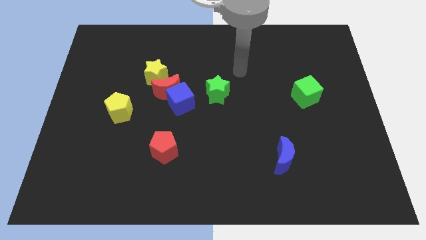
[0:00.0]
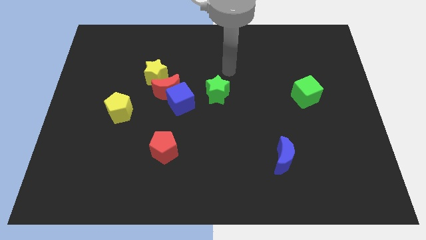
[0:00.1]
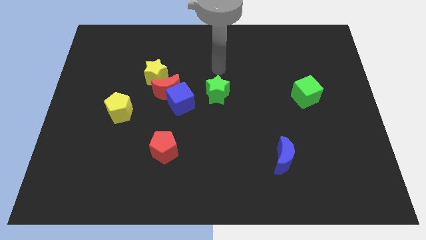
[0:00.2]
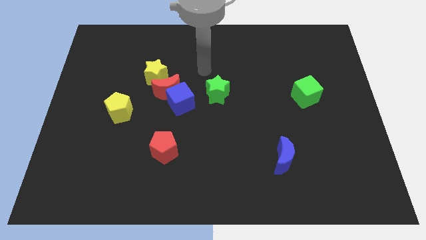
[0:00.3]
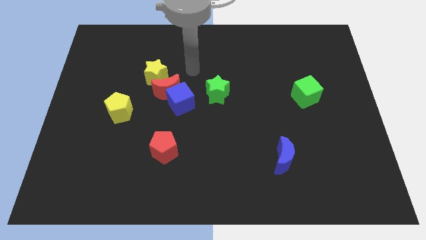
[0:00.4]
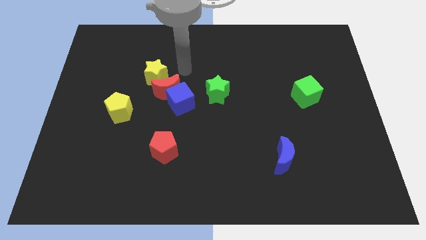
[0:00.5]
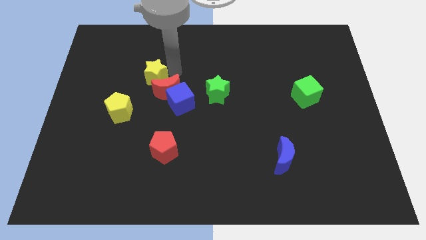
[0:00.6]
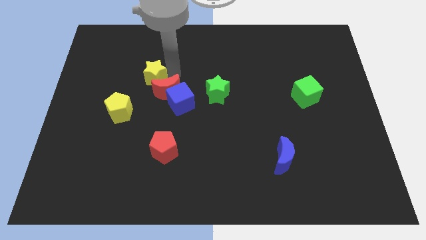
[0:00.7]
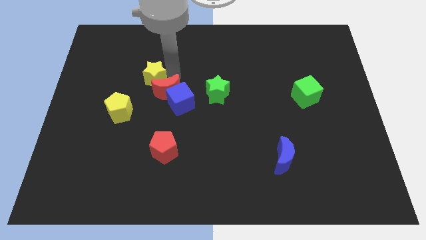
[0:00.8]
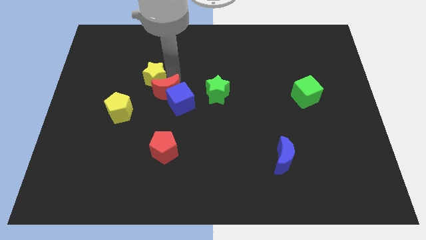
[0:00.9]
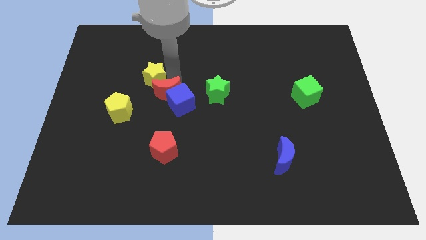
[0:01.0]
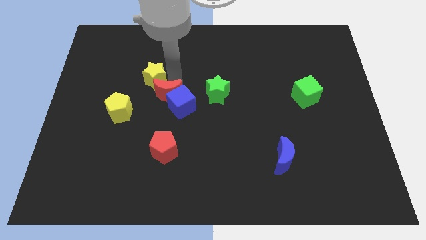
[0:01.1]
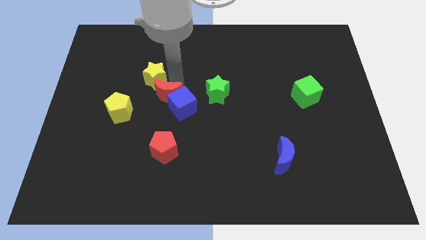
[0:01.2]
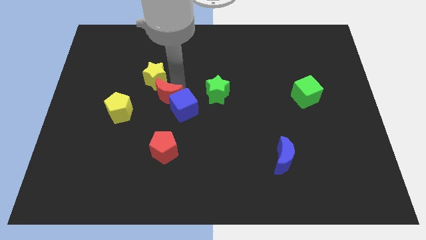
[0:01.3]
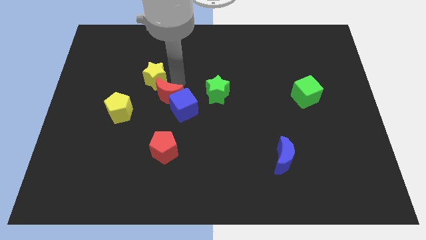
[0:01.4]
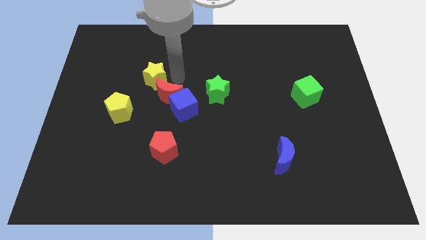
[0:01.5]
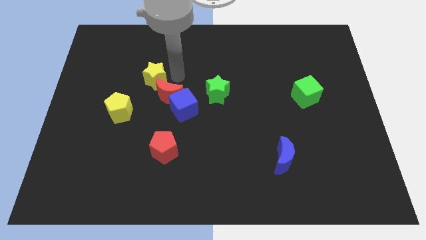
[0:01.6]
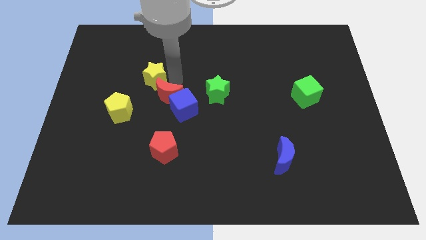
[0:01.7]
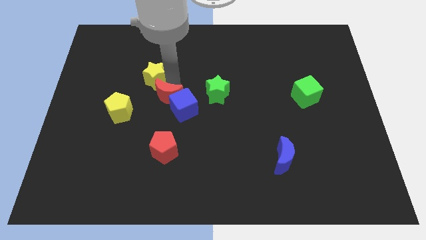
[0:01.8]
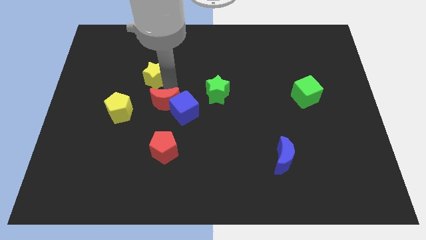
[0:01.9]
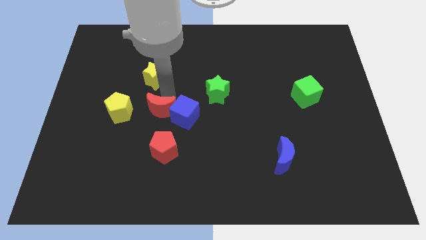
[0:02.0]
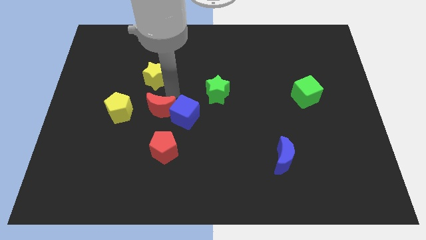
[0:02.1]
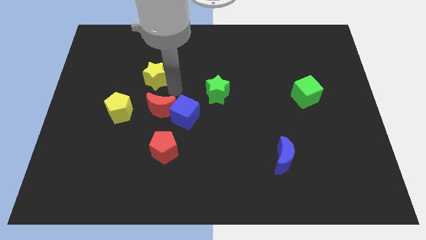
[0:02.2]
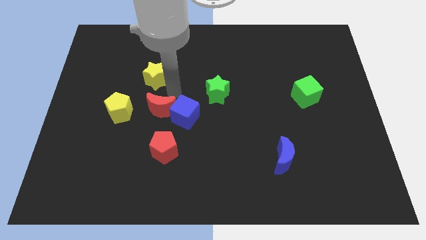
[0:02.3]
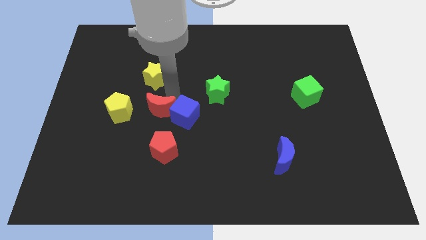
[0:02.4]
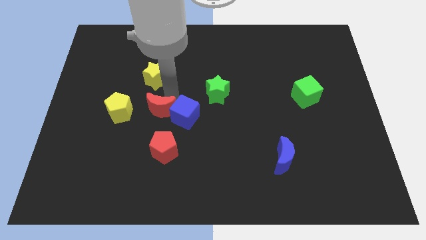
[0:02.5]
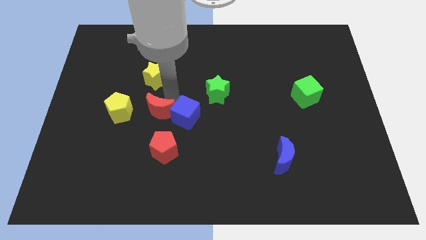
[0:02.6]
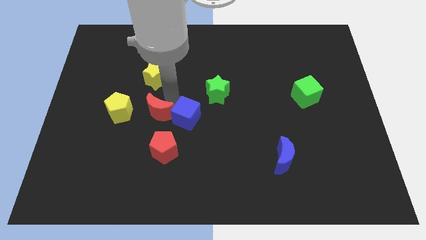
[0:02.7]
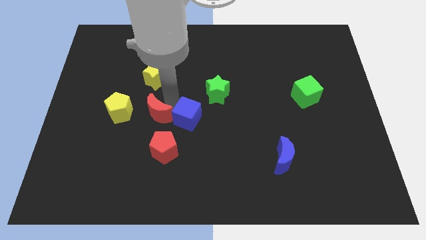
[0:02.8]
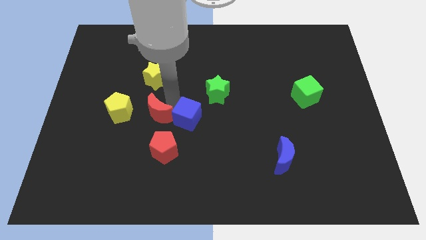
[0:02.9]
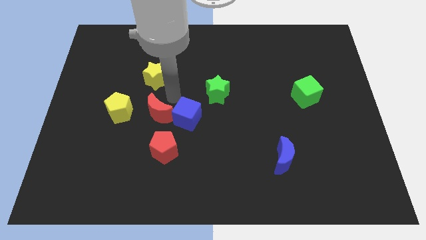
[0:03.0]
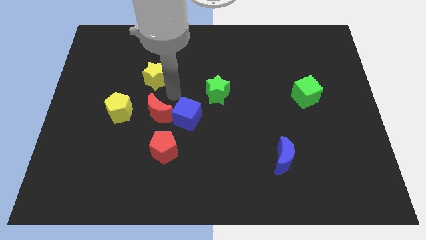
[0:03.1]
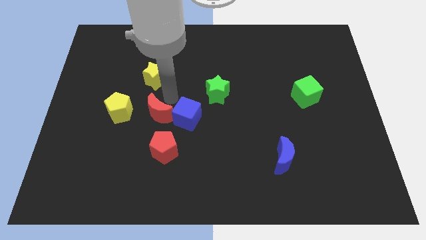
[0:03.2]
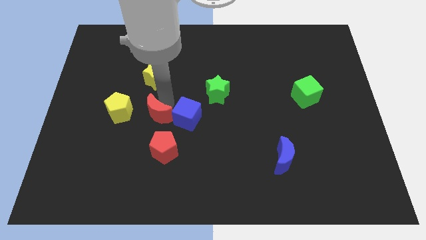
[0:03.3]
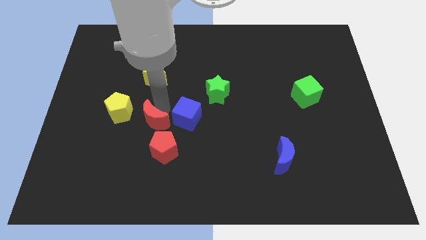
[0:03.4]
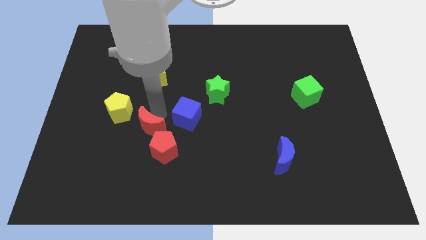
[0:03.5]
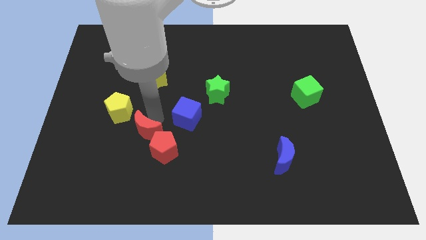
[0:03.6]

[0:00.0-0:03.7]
pull the red moon apart from the blue cube and yellow star

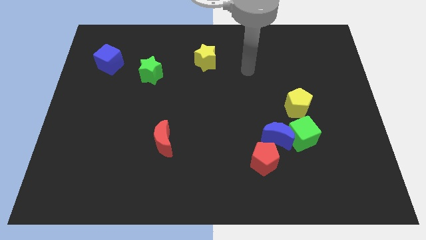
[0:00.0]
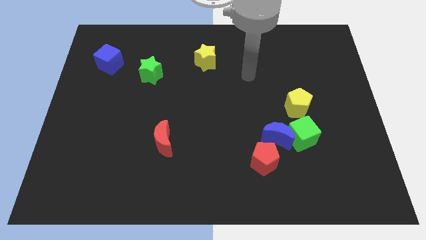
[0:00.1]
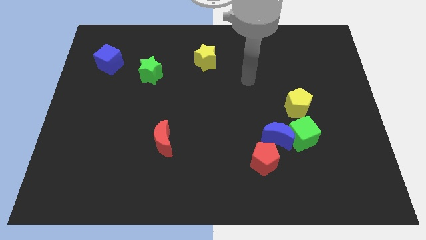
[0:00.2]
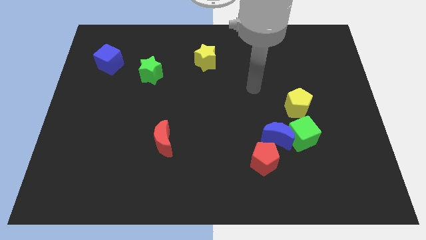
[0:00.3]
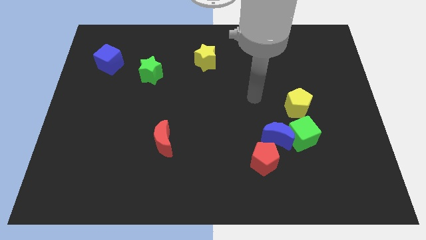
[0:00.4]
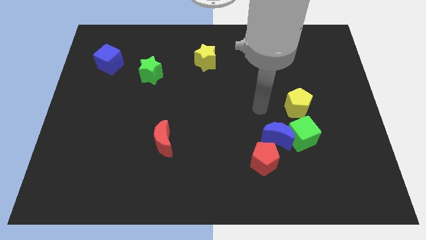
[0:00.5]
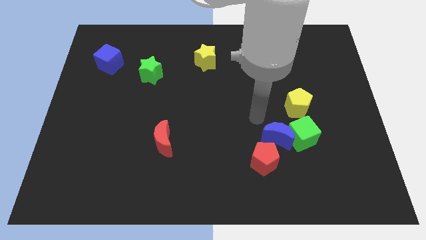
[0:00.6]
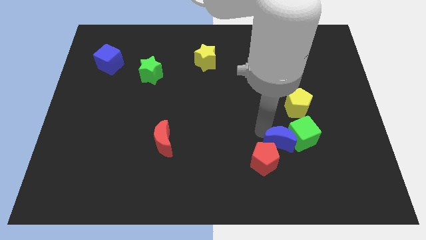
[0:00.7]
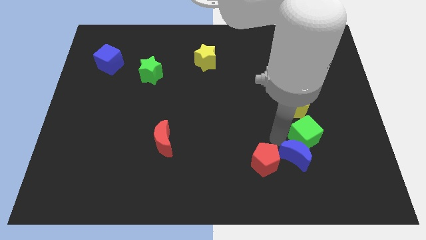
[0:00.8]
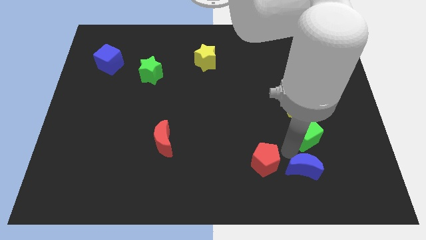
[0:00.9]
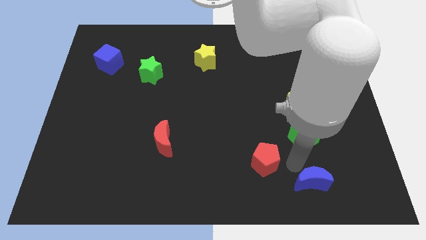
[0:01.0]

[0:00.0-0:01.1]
pull the red pentagon apart from the blue moon

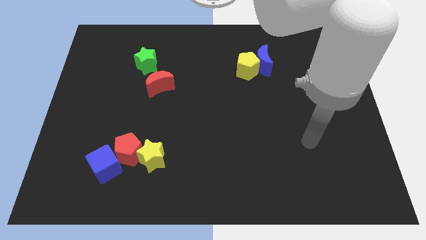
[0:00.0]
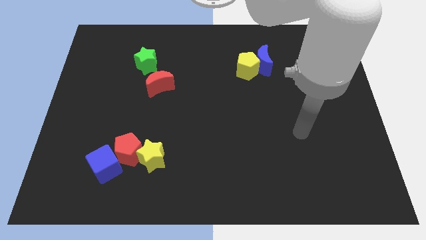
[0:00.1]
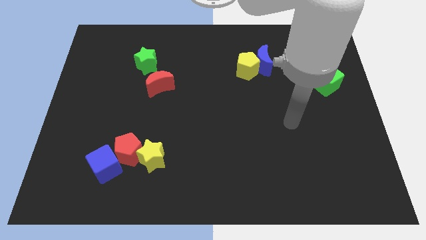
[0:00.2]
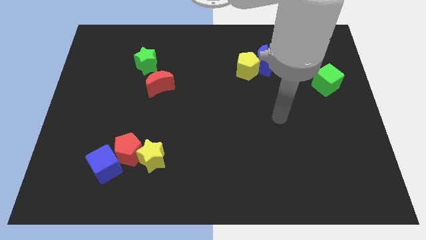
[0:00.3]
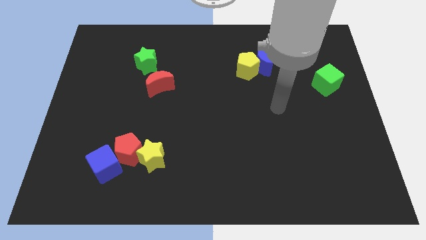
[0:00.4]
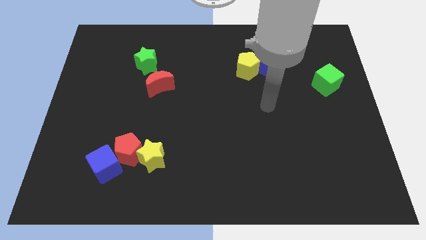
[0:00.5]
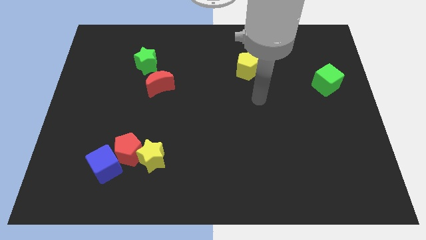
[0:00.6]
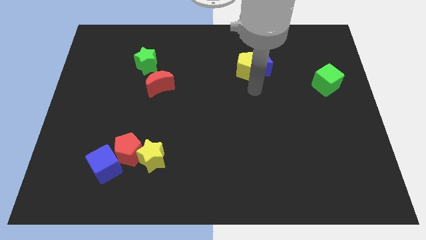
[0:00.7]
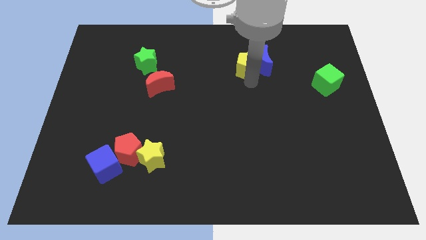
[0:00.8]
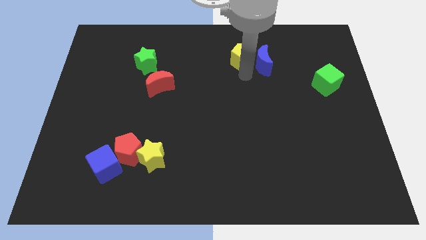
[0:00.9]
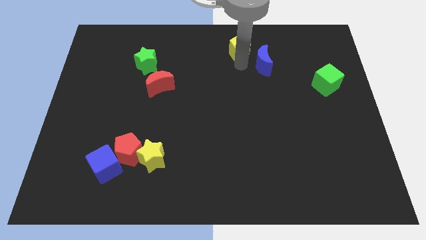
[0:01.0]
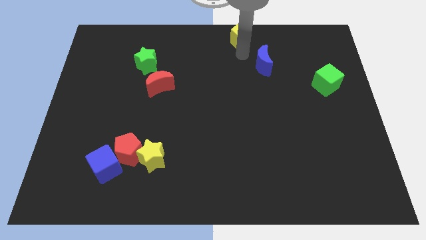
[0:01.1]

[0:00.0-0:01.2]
separate the blue moon from the yellow pentagon

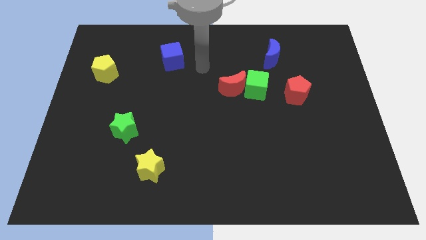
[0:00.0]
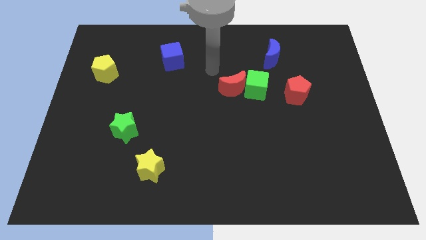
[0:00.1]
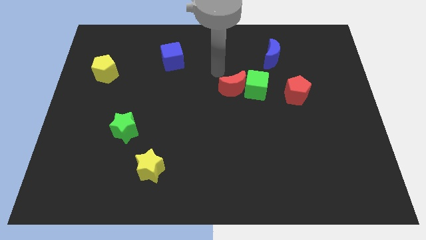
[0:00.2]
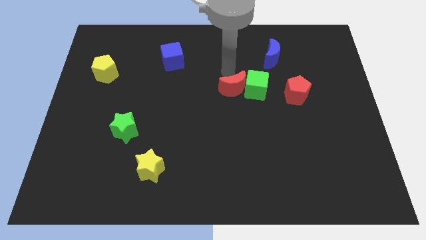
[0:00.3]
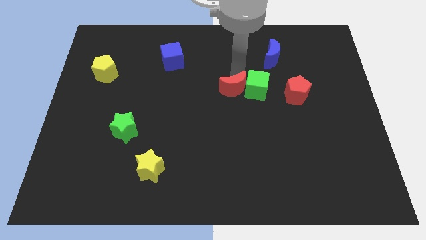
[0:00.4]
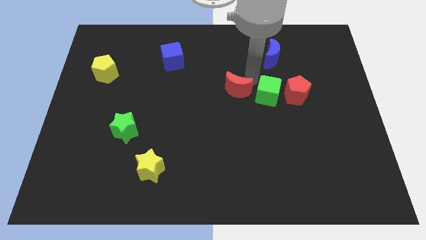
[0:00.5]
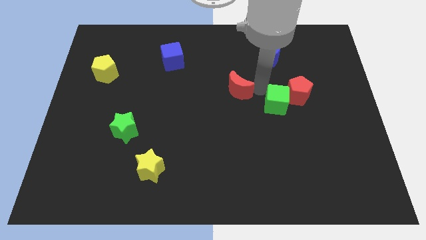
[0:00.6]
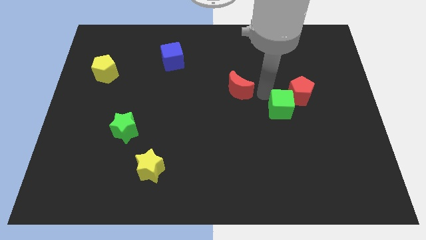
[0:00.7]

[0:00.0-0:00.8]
pull the red moon apart from the green cube

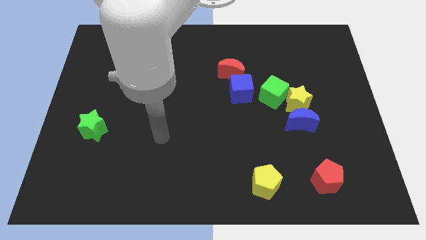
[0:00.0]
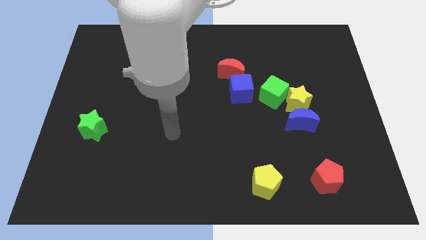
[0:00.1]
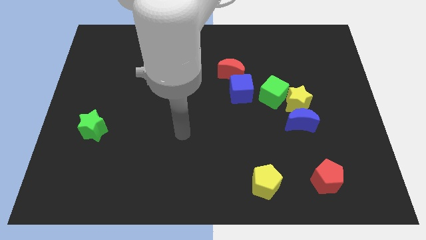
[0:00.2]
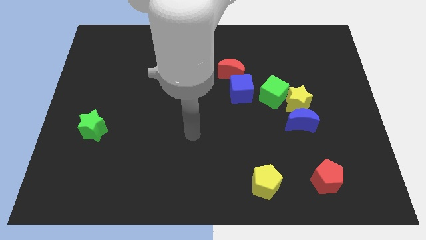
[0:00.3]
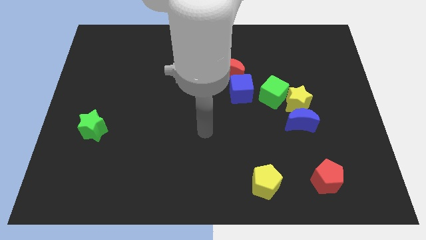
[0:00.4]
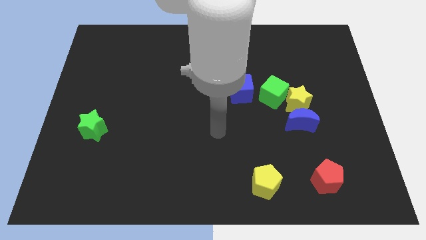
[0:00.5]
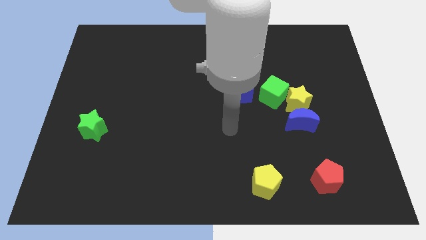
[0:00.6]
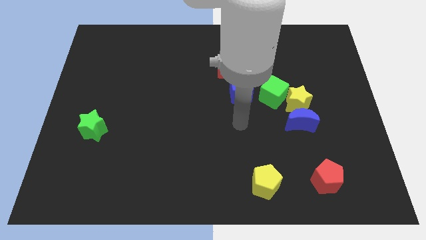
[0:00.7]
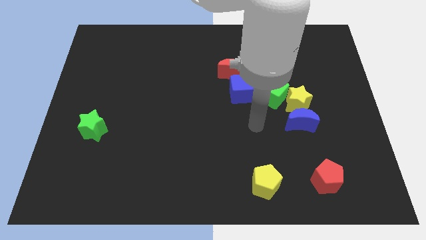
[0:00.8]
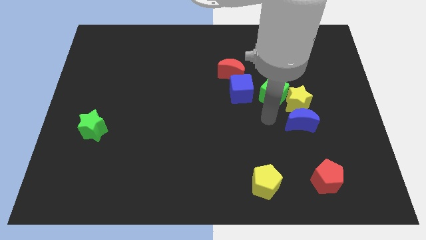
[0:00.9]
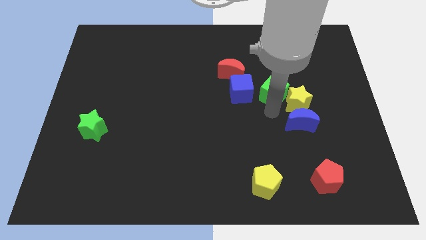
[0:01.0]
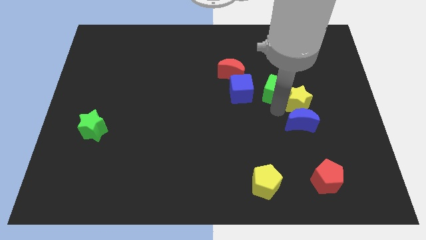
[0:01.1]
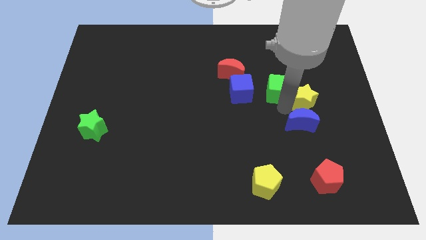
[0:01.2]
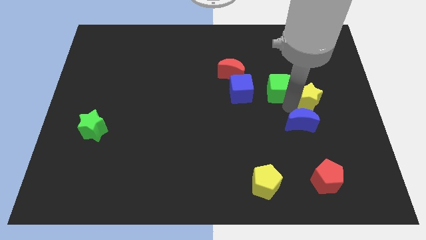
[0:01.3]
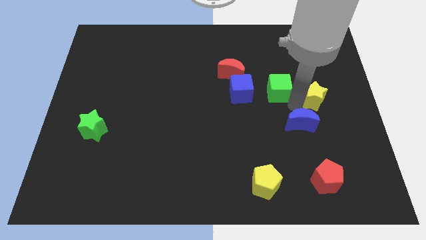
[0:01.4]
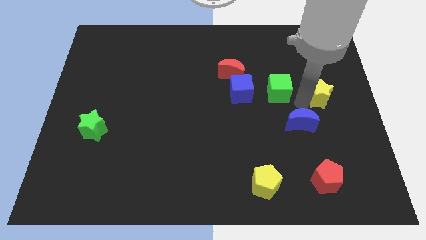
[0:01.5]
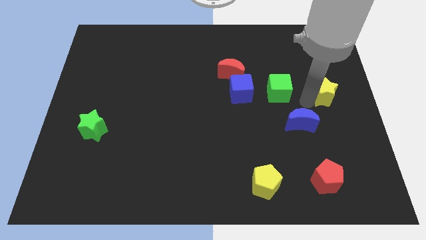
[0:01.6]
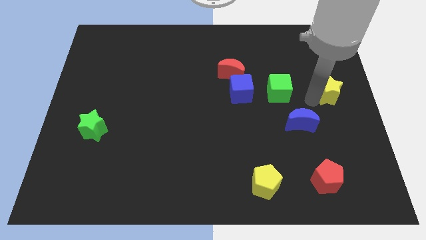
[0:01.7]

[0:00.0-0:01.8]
pull the yellow star apart from the blue moon and green cube

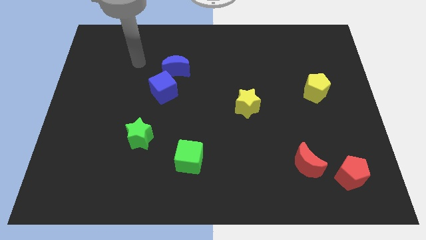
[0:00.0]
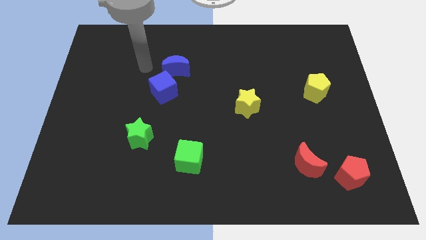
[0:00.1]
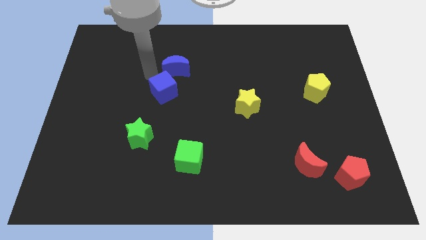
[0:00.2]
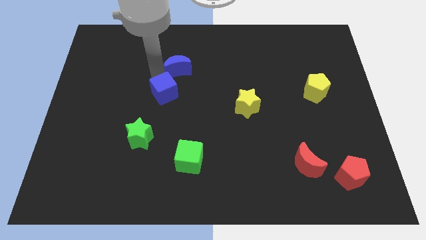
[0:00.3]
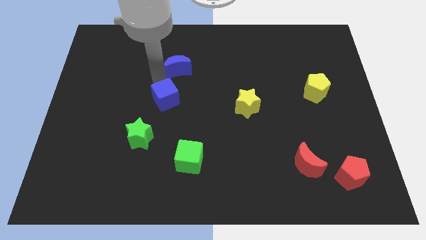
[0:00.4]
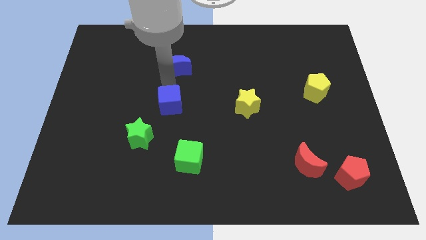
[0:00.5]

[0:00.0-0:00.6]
pull the blue moon apart from the blue cube

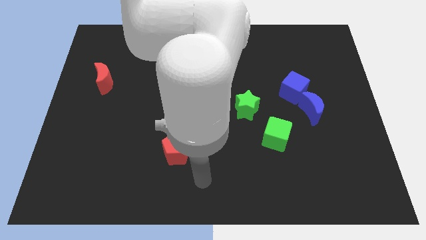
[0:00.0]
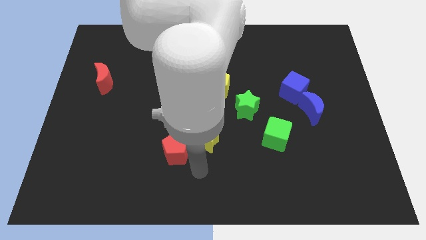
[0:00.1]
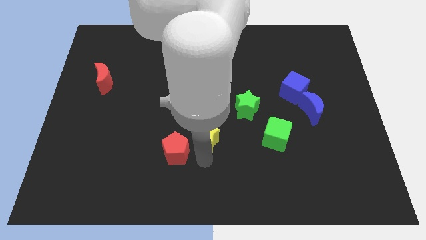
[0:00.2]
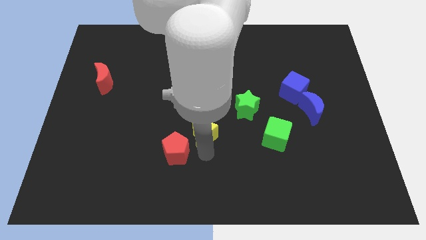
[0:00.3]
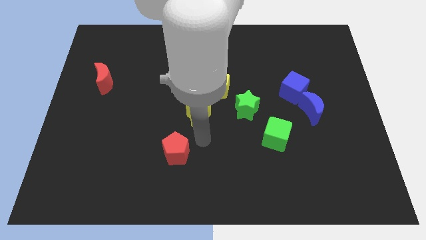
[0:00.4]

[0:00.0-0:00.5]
move the red pentagon away from the yellow star
